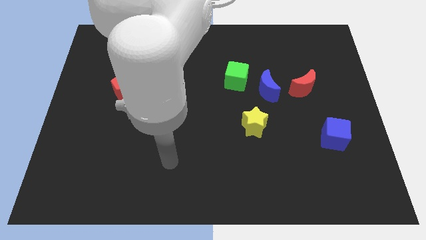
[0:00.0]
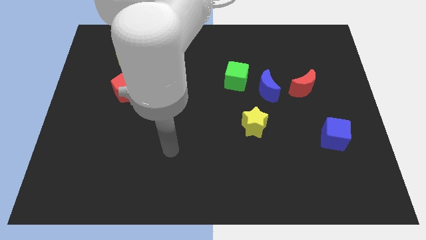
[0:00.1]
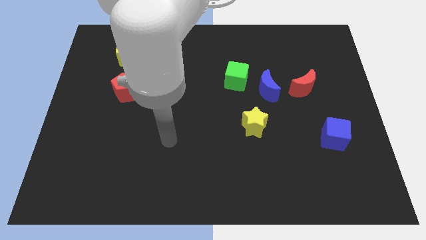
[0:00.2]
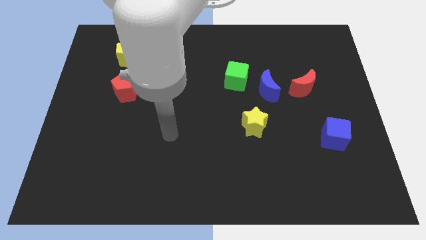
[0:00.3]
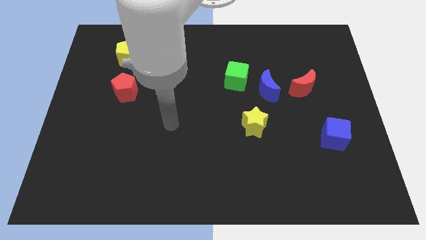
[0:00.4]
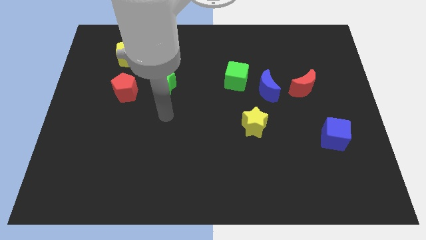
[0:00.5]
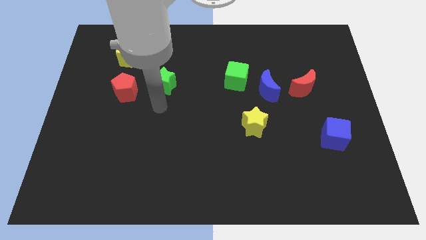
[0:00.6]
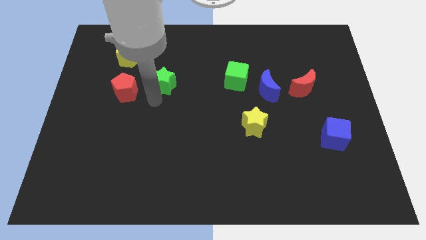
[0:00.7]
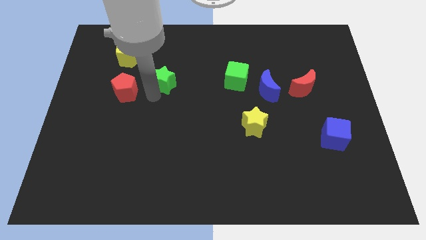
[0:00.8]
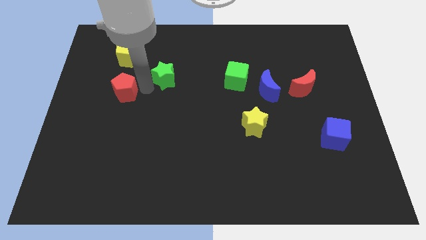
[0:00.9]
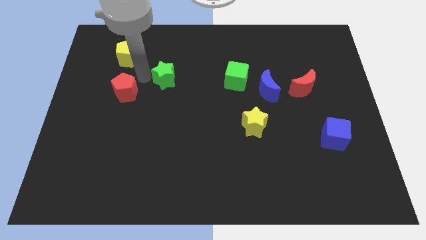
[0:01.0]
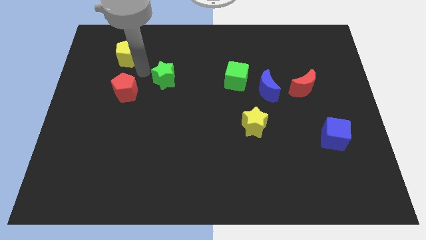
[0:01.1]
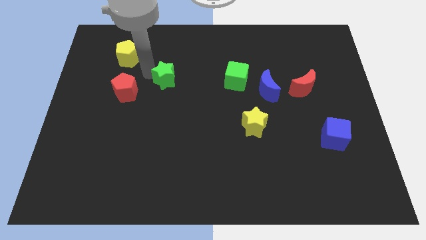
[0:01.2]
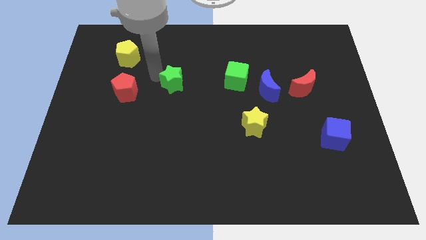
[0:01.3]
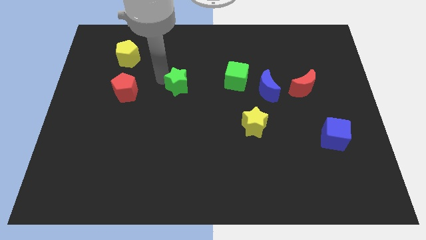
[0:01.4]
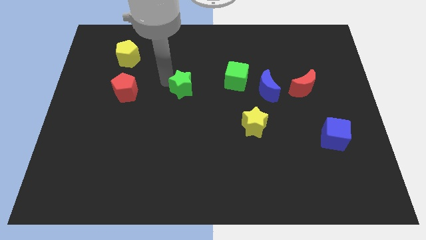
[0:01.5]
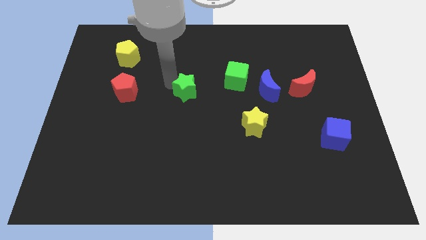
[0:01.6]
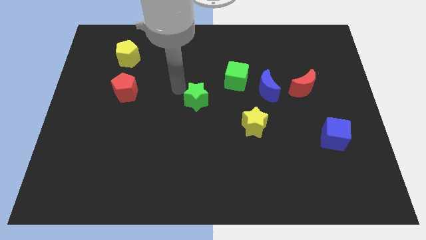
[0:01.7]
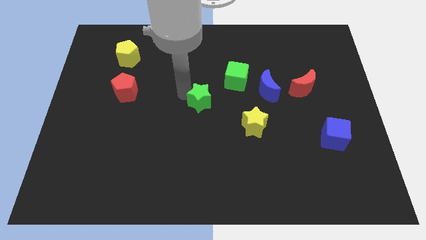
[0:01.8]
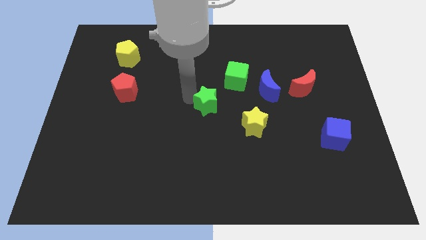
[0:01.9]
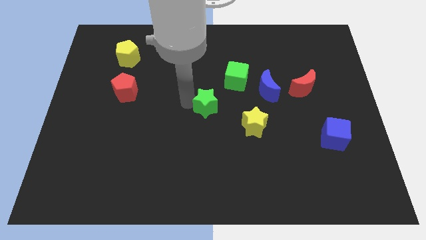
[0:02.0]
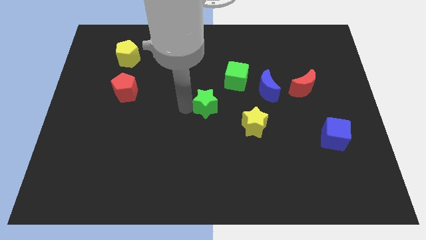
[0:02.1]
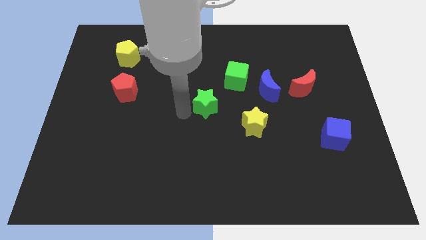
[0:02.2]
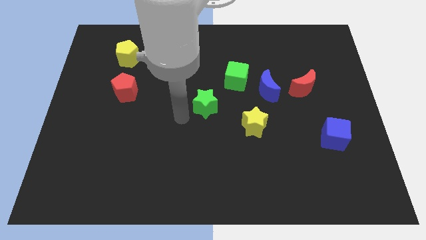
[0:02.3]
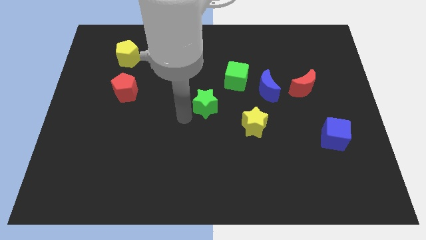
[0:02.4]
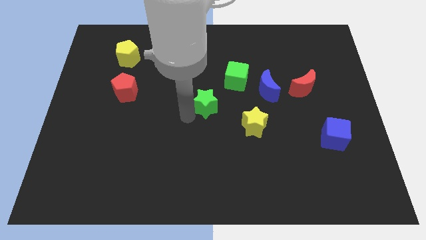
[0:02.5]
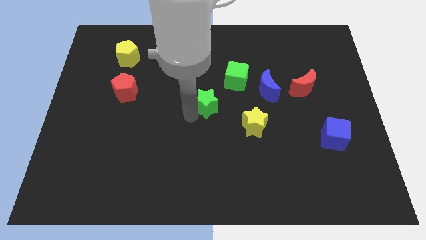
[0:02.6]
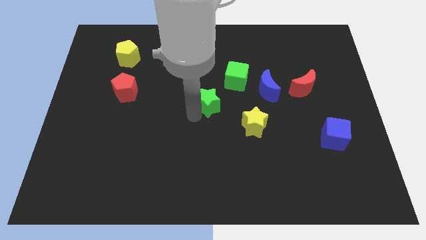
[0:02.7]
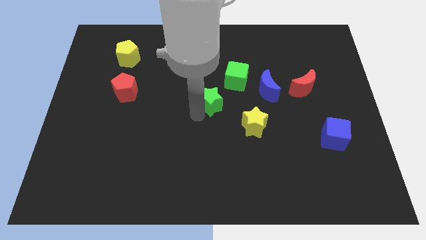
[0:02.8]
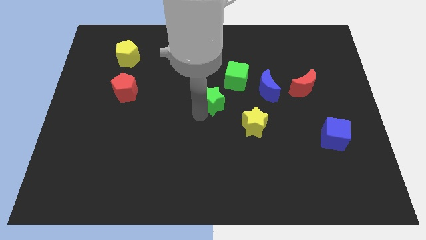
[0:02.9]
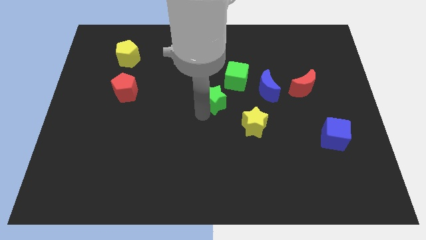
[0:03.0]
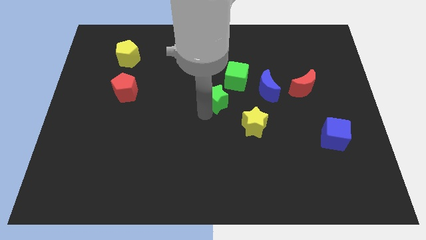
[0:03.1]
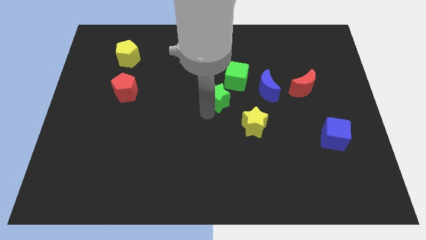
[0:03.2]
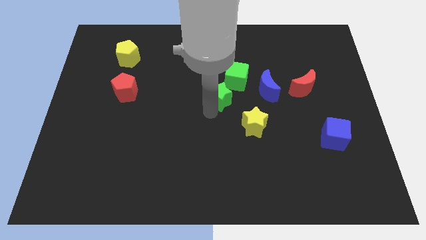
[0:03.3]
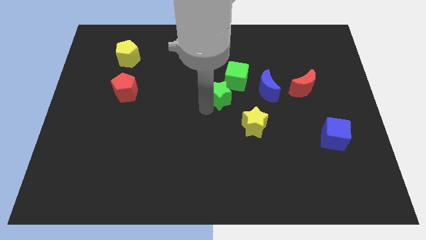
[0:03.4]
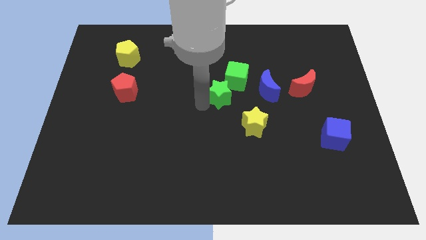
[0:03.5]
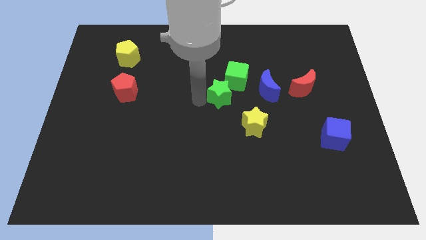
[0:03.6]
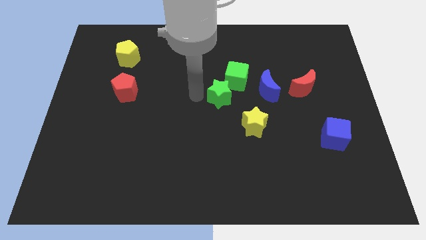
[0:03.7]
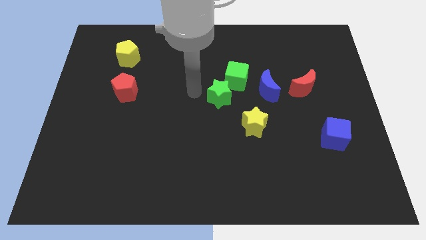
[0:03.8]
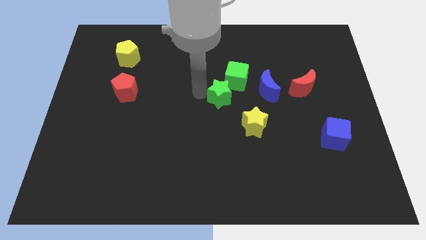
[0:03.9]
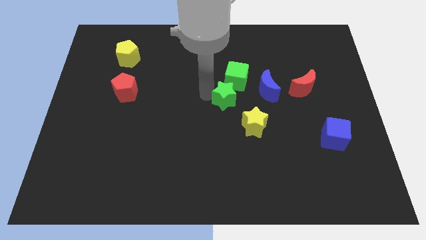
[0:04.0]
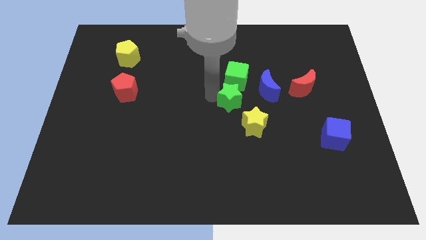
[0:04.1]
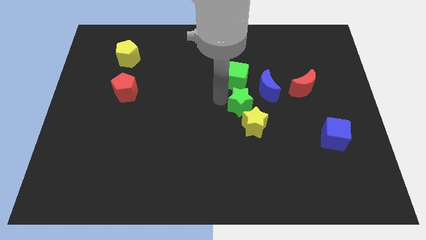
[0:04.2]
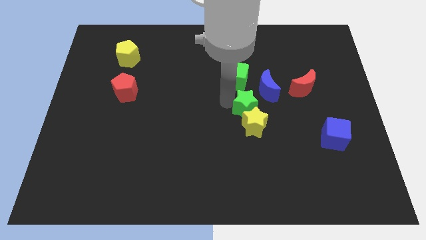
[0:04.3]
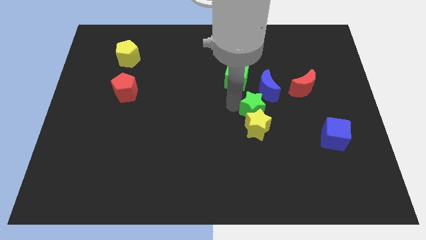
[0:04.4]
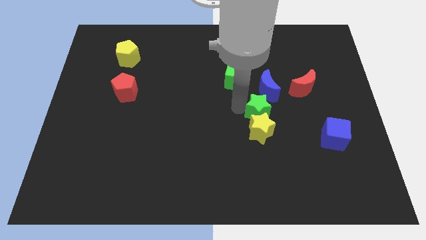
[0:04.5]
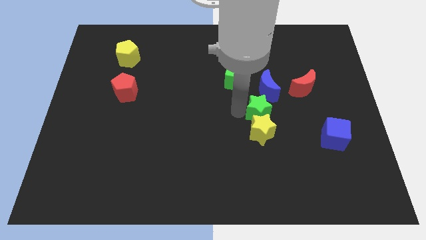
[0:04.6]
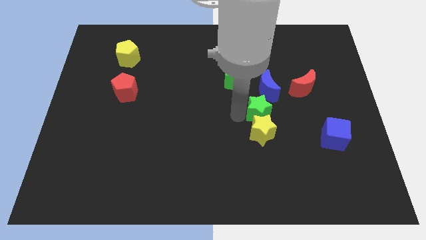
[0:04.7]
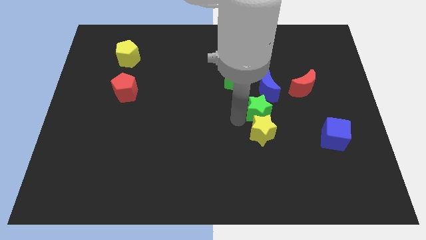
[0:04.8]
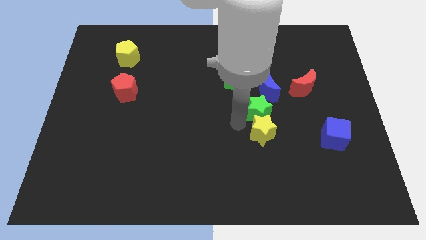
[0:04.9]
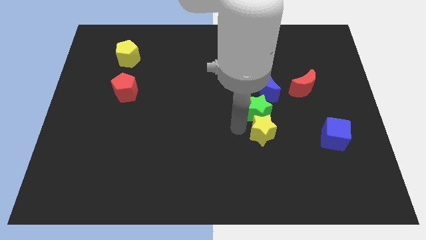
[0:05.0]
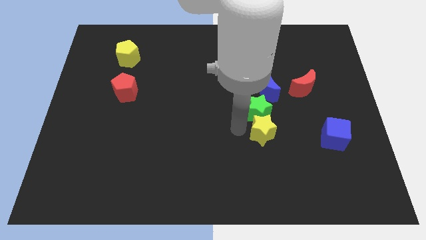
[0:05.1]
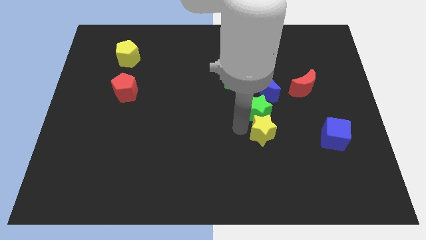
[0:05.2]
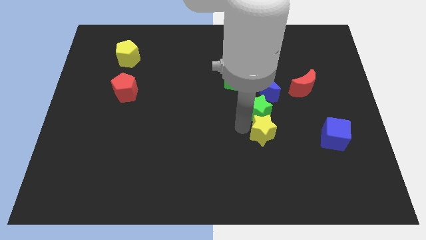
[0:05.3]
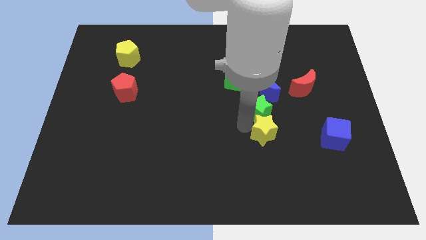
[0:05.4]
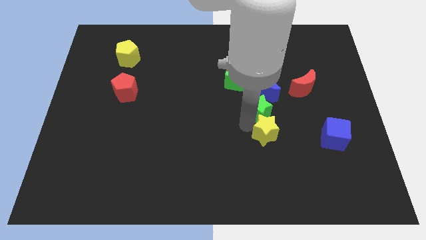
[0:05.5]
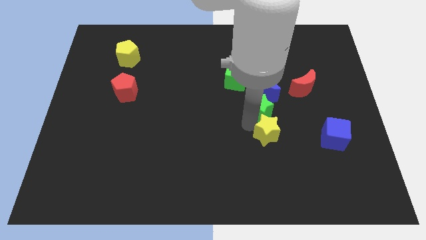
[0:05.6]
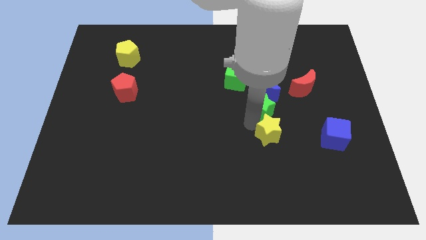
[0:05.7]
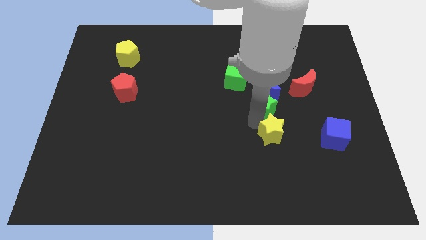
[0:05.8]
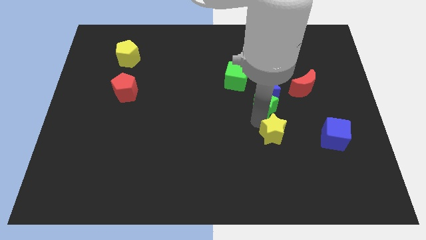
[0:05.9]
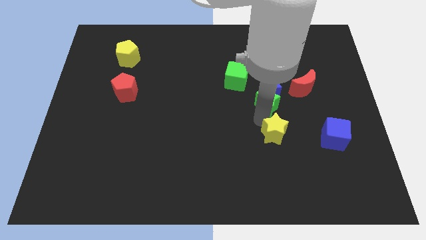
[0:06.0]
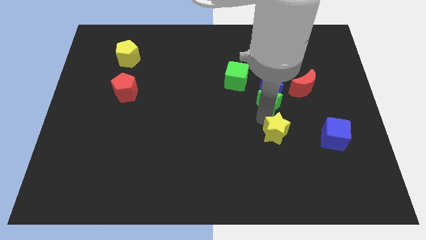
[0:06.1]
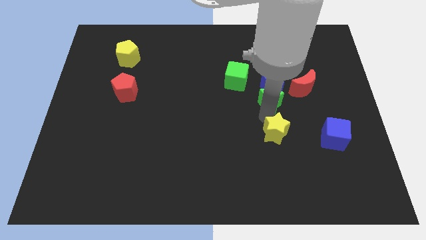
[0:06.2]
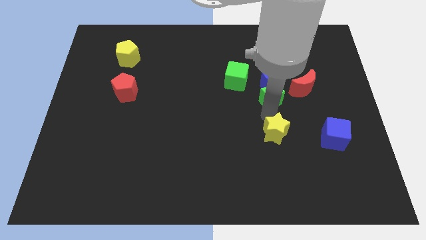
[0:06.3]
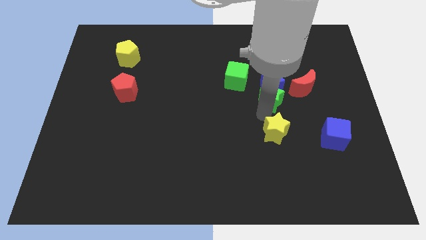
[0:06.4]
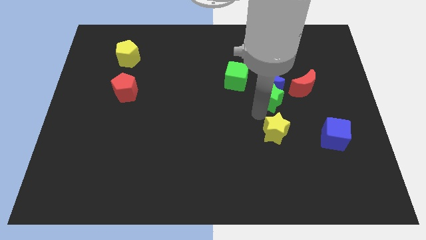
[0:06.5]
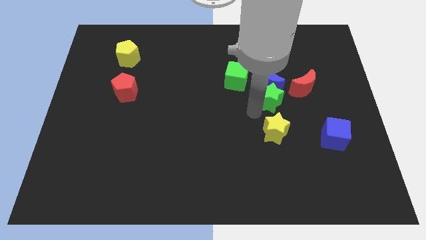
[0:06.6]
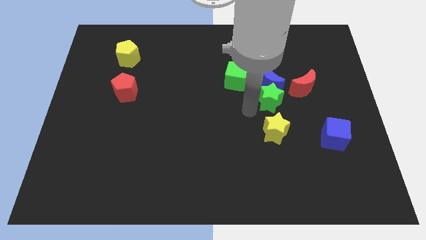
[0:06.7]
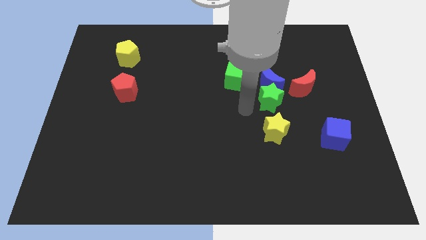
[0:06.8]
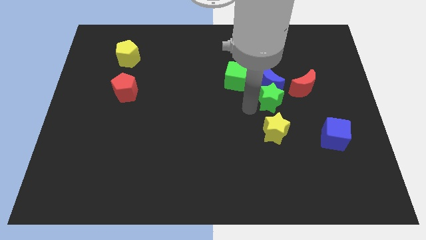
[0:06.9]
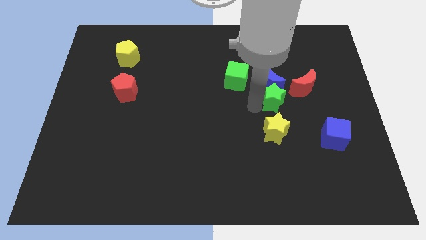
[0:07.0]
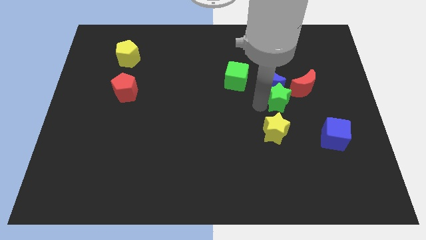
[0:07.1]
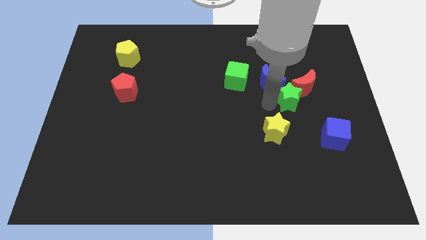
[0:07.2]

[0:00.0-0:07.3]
push the green star towards the red moon

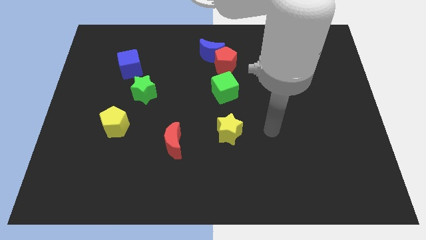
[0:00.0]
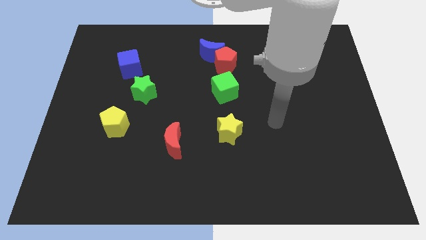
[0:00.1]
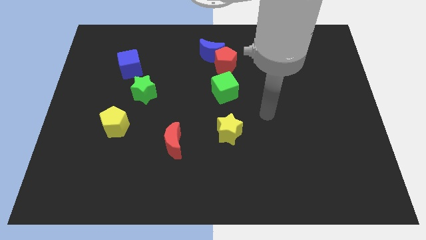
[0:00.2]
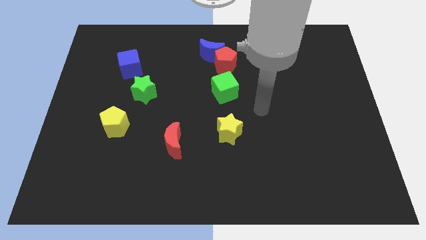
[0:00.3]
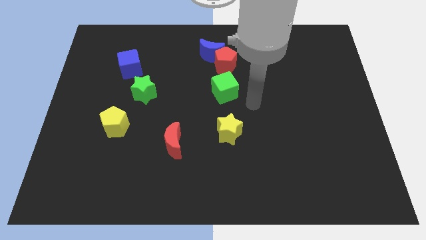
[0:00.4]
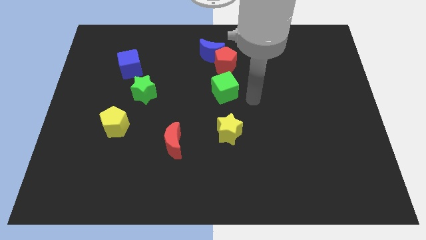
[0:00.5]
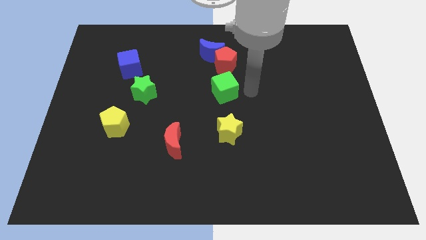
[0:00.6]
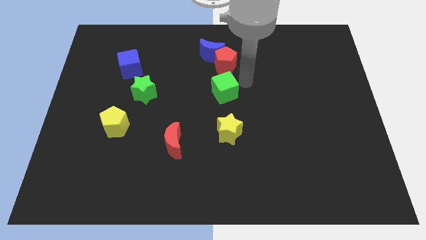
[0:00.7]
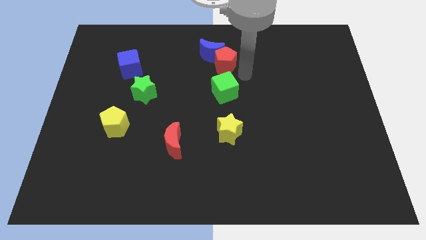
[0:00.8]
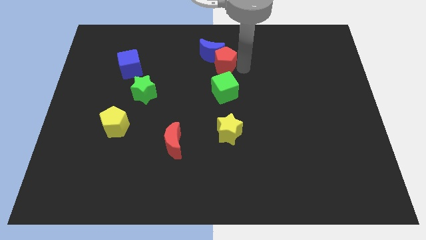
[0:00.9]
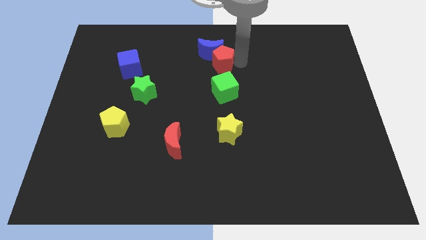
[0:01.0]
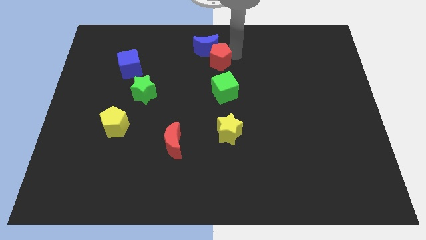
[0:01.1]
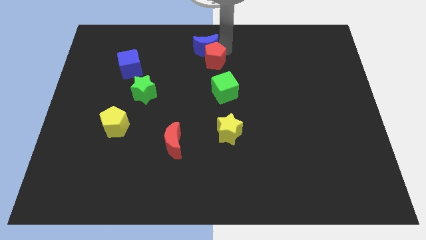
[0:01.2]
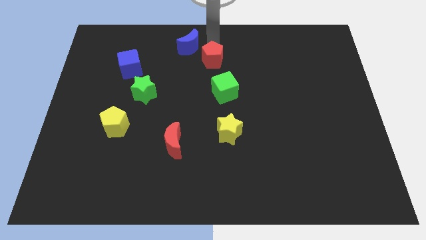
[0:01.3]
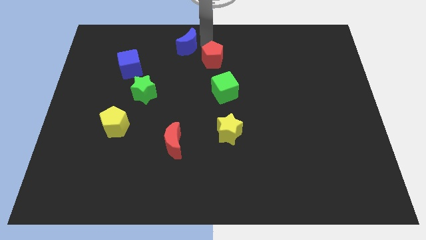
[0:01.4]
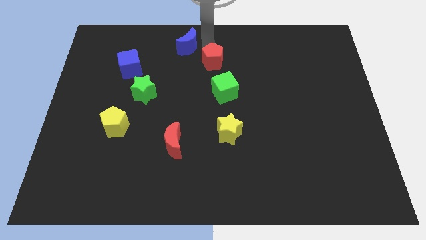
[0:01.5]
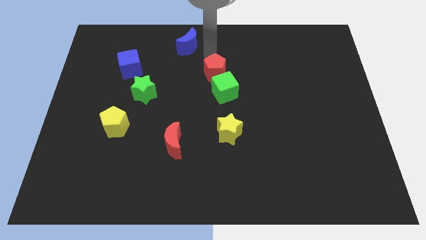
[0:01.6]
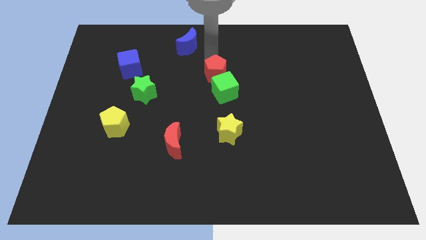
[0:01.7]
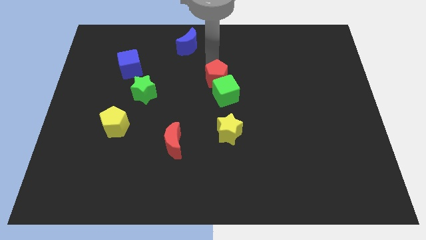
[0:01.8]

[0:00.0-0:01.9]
move the red pentagon towards the green cube
